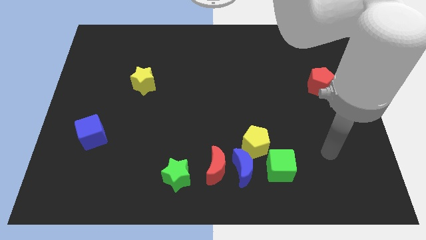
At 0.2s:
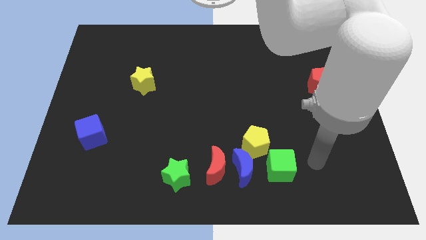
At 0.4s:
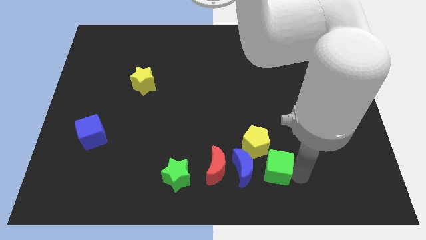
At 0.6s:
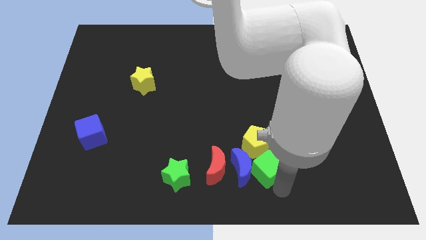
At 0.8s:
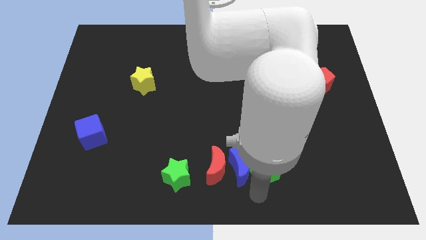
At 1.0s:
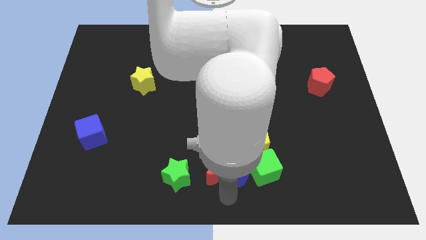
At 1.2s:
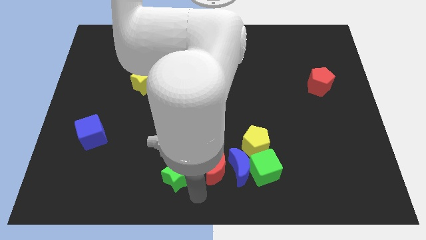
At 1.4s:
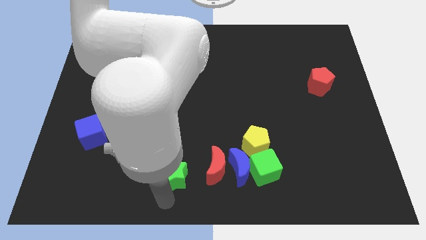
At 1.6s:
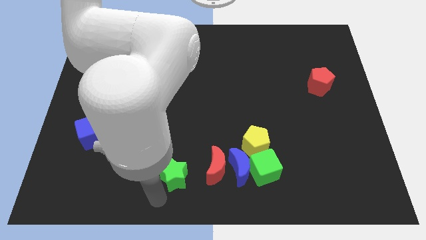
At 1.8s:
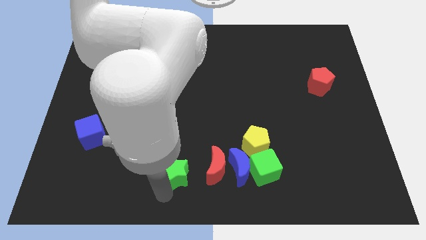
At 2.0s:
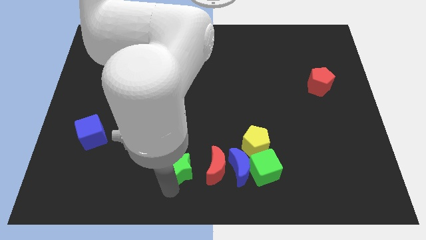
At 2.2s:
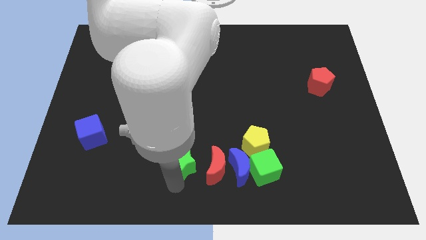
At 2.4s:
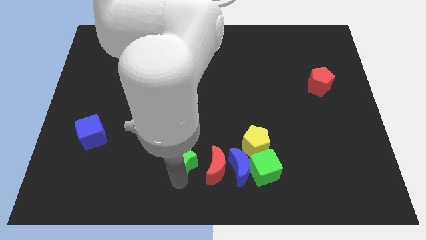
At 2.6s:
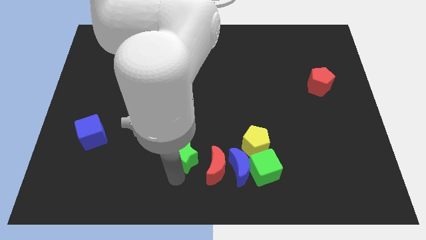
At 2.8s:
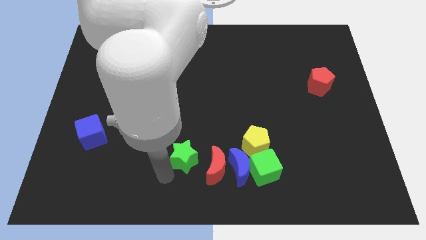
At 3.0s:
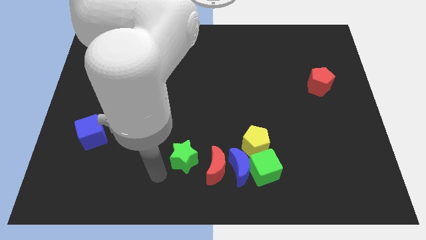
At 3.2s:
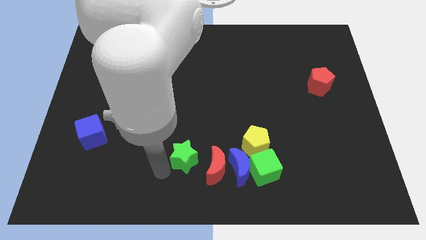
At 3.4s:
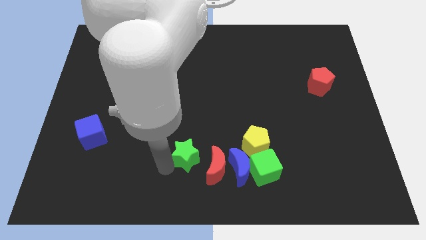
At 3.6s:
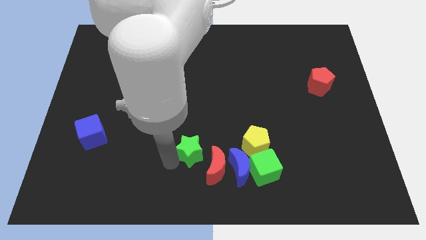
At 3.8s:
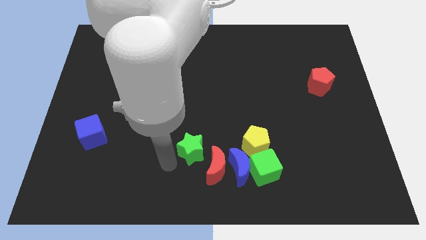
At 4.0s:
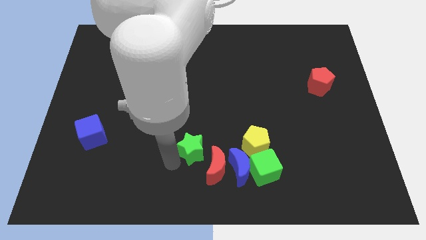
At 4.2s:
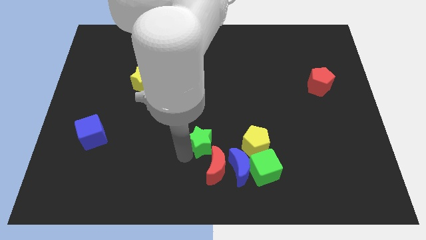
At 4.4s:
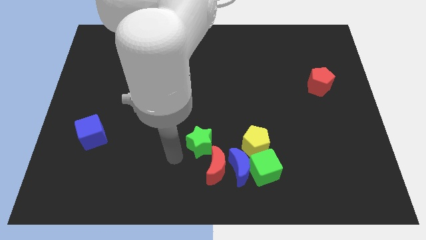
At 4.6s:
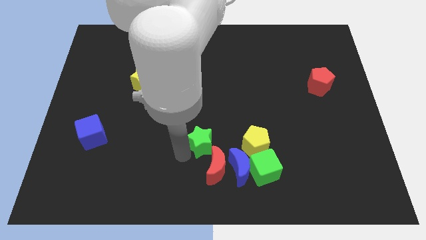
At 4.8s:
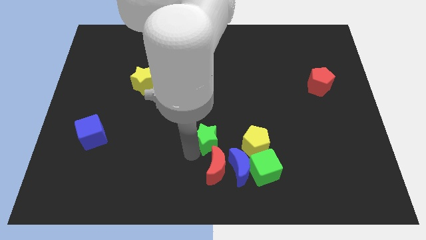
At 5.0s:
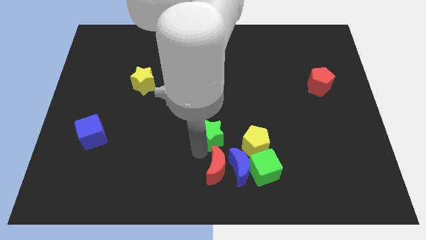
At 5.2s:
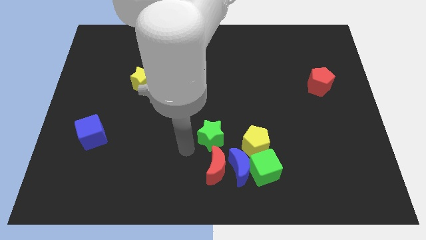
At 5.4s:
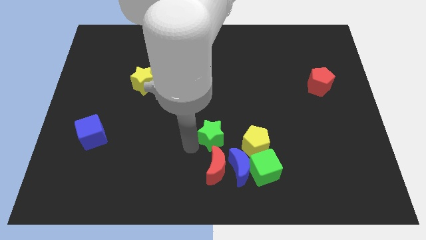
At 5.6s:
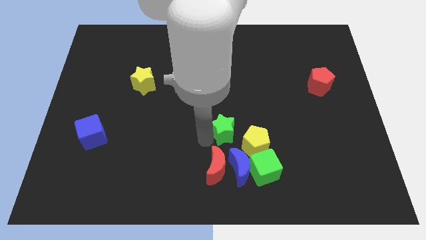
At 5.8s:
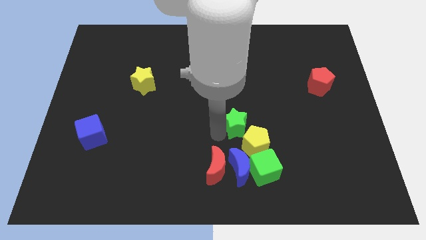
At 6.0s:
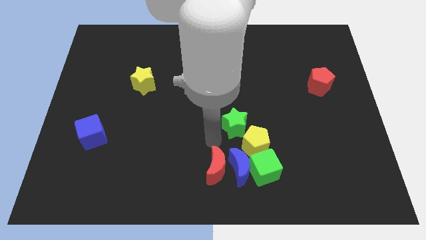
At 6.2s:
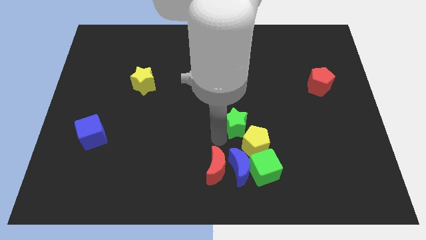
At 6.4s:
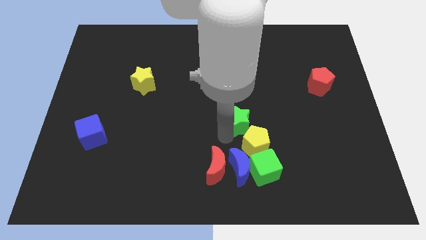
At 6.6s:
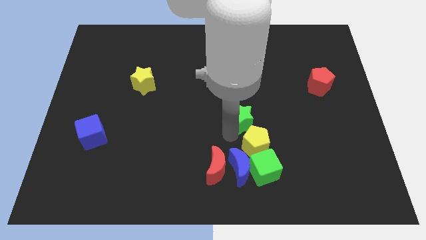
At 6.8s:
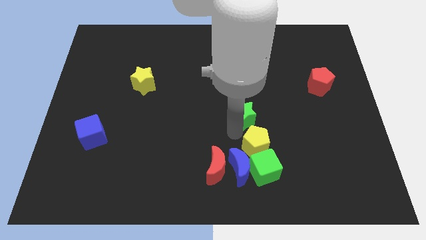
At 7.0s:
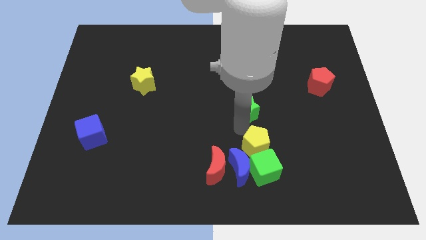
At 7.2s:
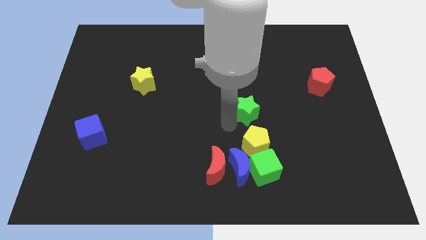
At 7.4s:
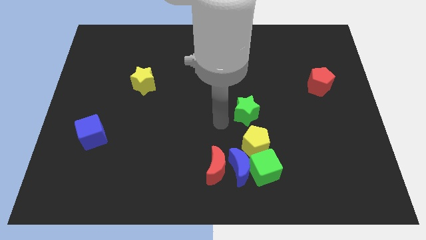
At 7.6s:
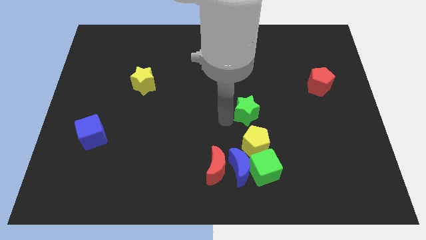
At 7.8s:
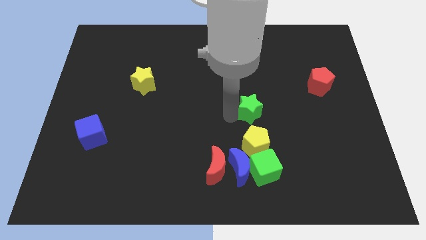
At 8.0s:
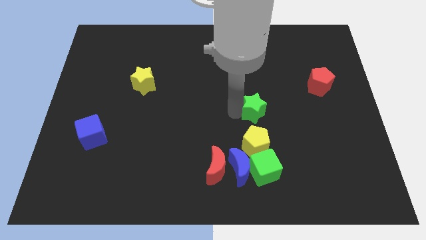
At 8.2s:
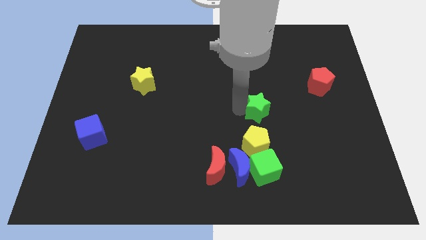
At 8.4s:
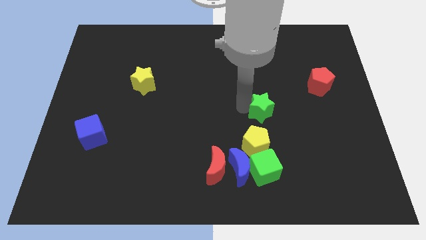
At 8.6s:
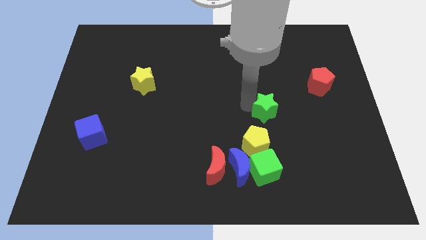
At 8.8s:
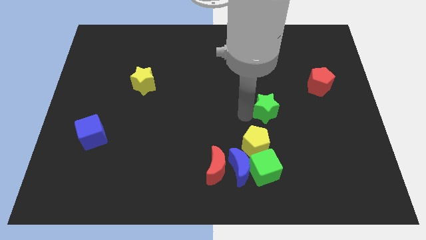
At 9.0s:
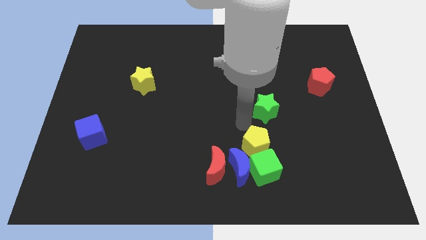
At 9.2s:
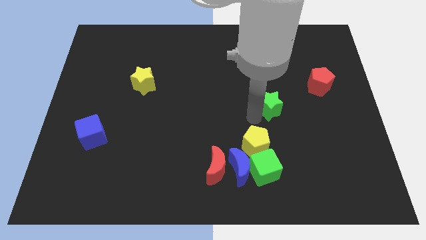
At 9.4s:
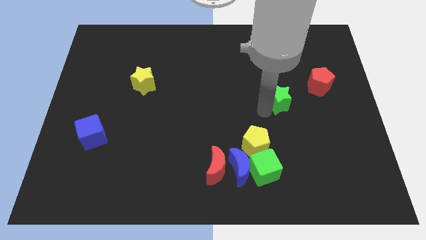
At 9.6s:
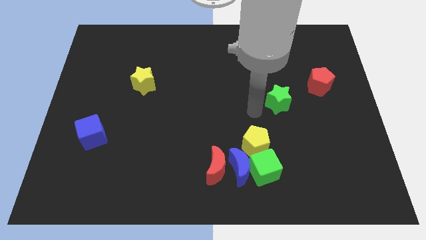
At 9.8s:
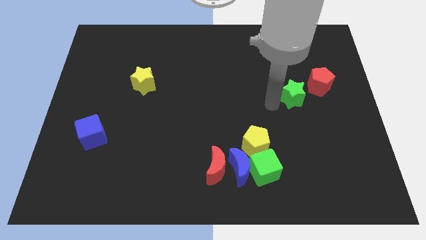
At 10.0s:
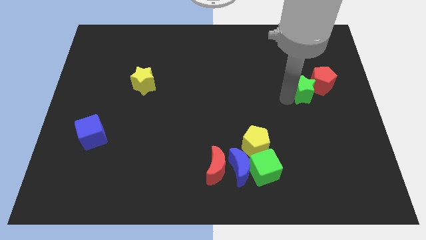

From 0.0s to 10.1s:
slide the green star next to the red pentagon

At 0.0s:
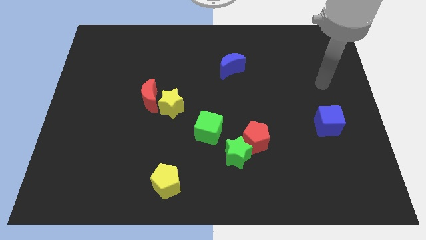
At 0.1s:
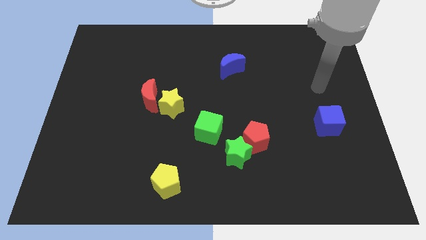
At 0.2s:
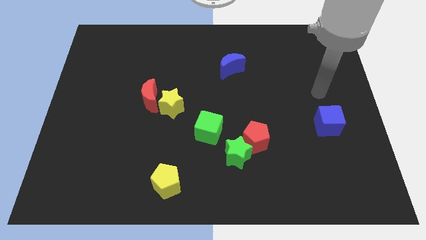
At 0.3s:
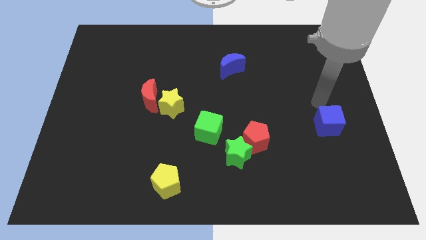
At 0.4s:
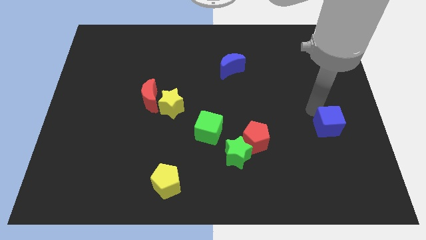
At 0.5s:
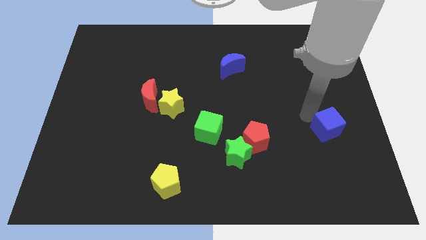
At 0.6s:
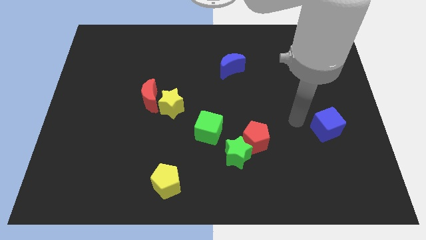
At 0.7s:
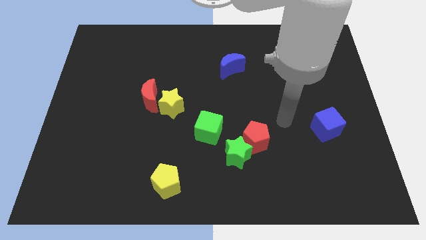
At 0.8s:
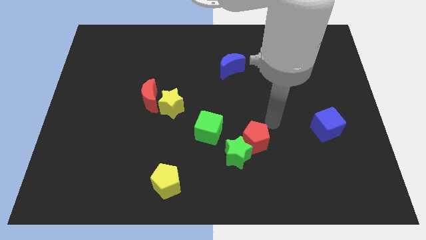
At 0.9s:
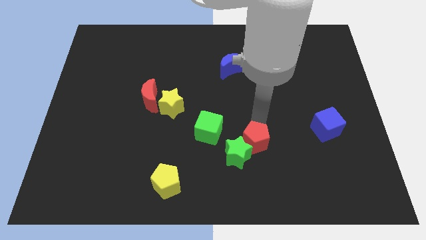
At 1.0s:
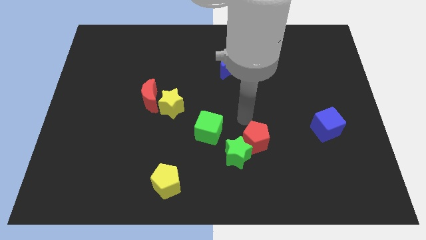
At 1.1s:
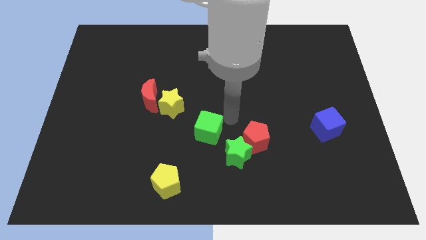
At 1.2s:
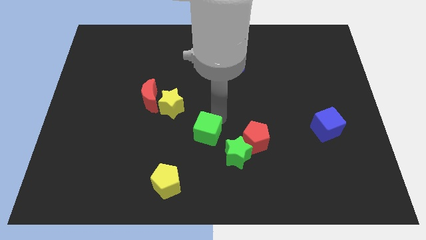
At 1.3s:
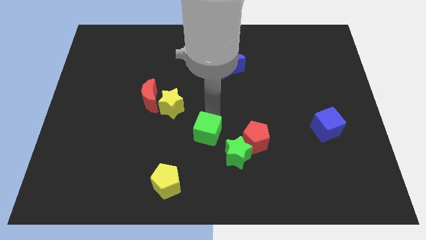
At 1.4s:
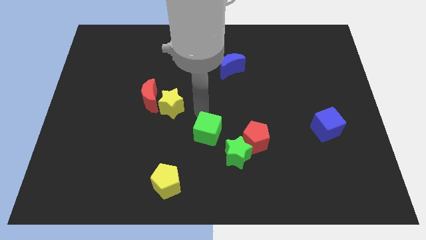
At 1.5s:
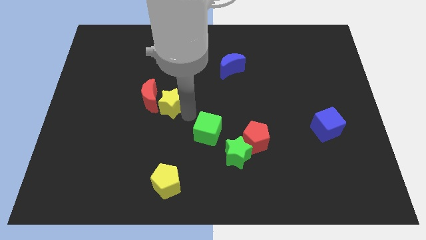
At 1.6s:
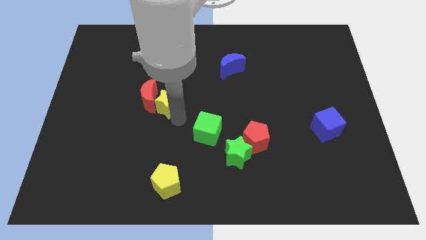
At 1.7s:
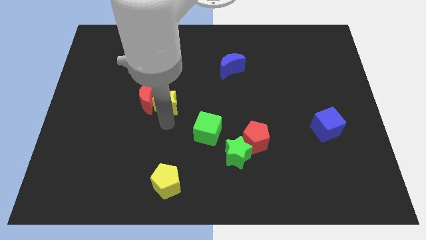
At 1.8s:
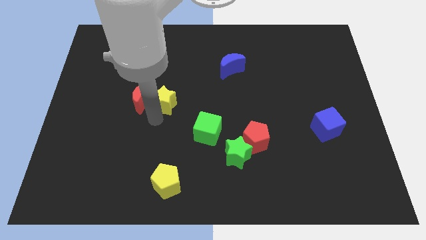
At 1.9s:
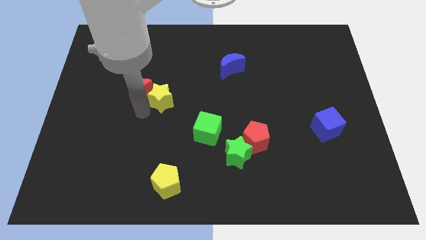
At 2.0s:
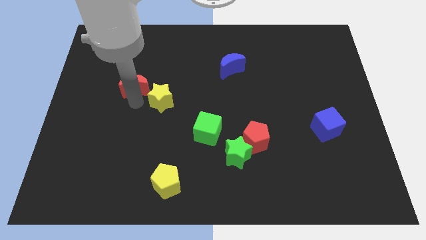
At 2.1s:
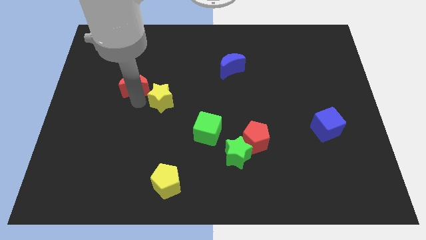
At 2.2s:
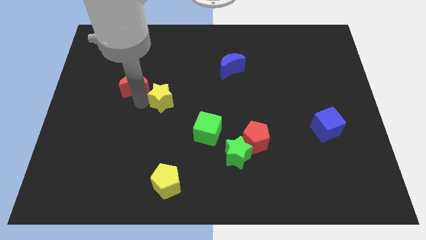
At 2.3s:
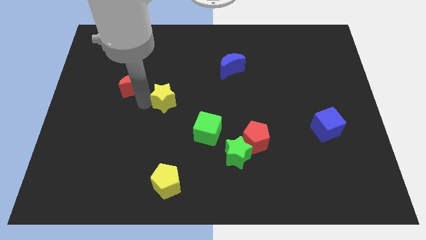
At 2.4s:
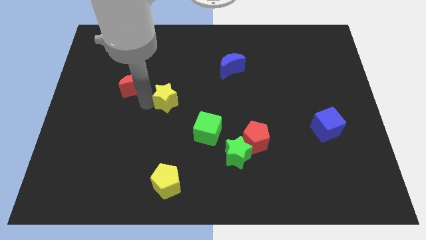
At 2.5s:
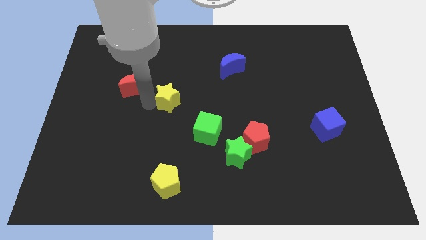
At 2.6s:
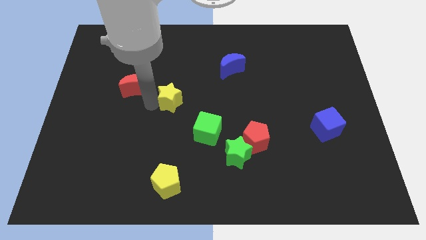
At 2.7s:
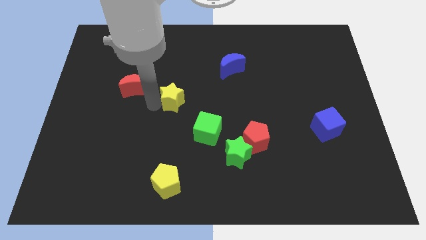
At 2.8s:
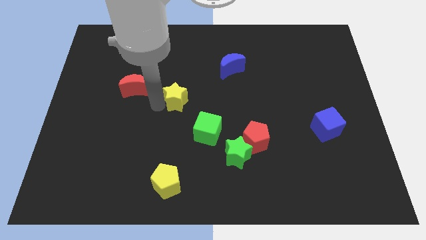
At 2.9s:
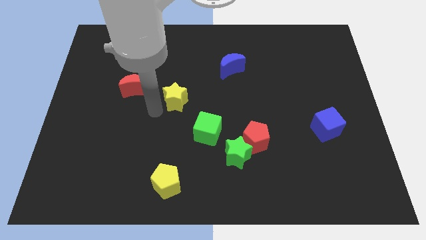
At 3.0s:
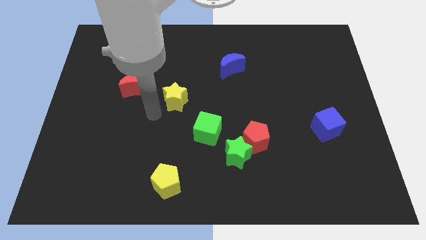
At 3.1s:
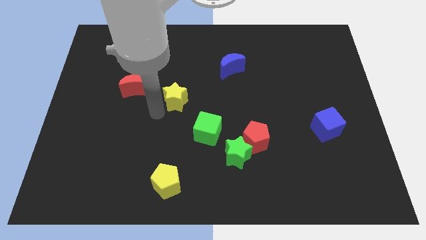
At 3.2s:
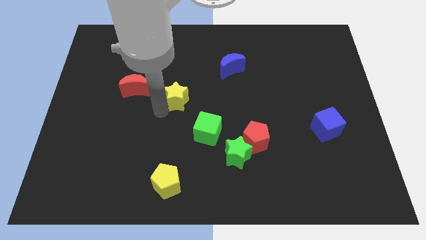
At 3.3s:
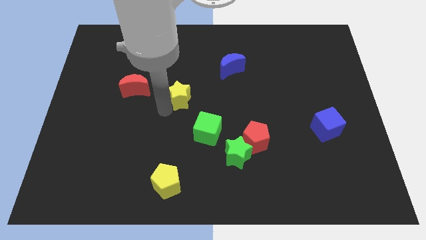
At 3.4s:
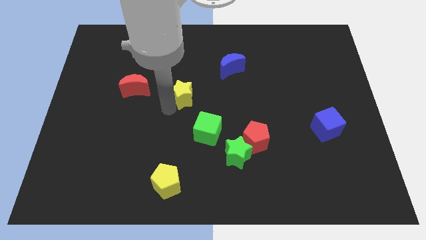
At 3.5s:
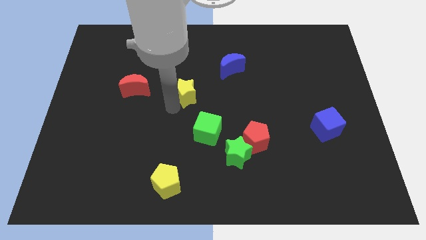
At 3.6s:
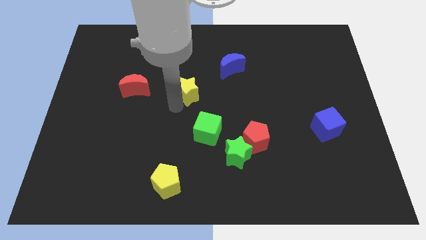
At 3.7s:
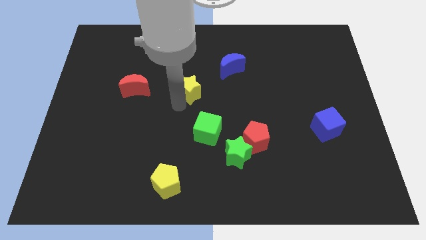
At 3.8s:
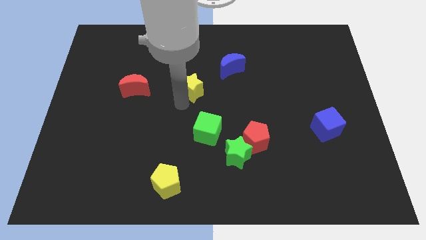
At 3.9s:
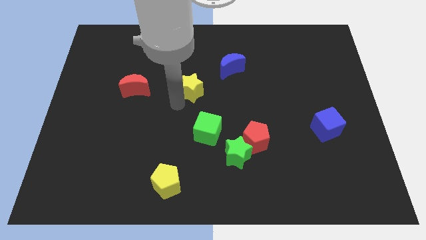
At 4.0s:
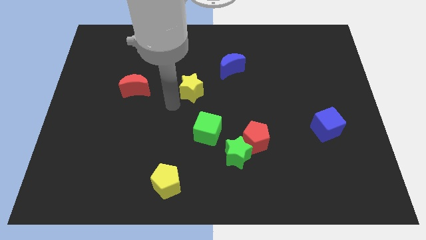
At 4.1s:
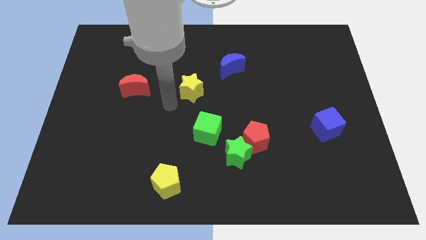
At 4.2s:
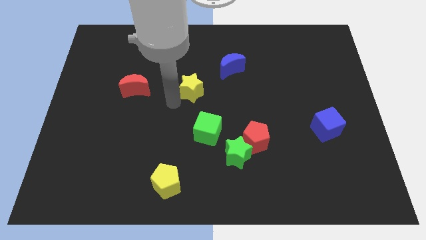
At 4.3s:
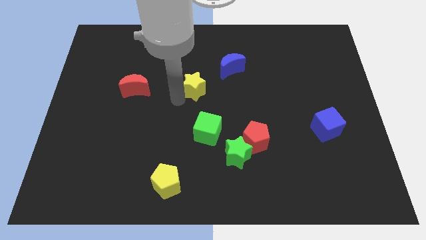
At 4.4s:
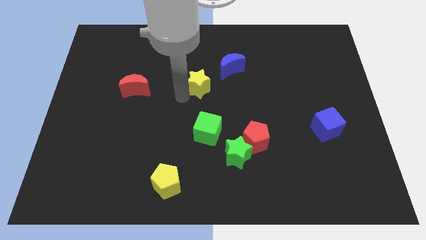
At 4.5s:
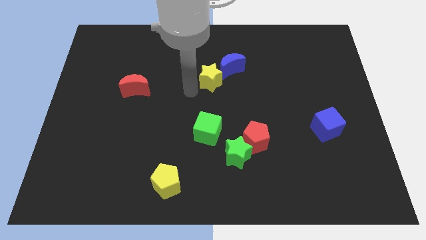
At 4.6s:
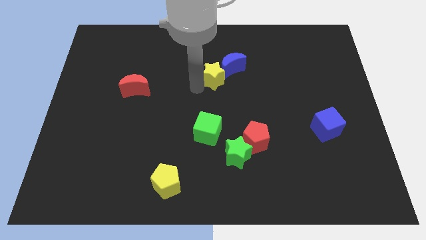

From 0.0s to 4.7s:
move the yellow star to the blue moon
